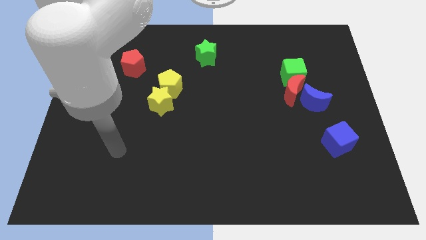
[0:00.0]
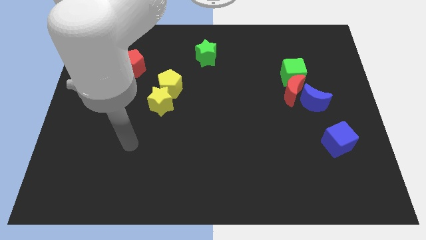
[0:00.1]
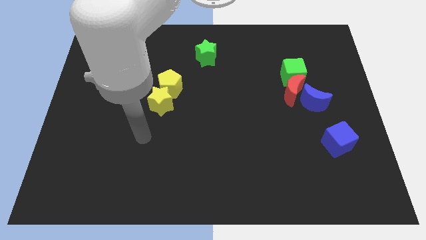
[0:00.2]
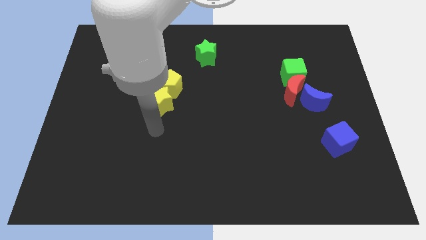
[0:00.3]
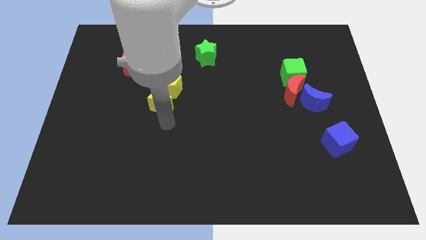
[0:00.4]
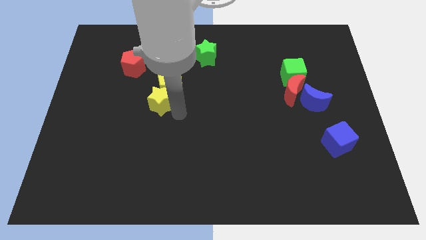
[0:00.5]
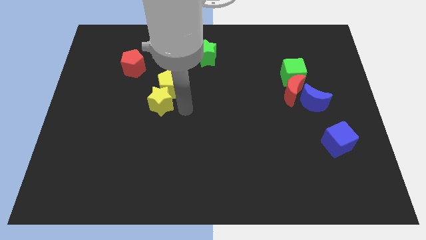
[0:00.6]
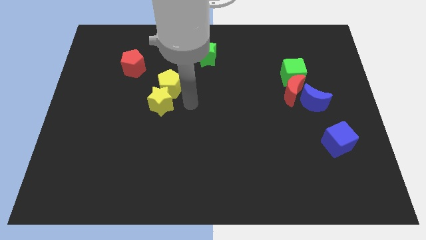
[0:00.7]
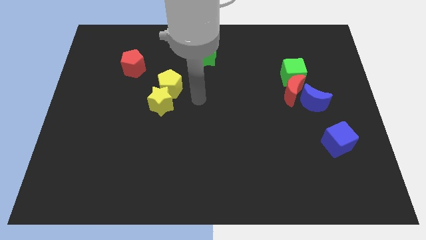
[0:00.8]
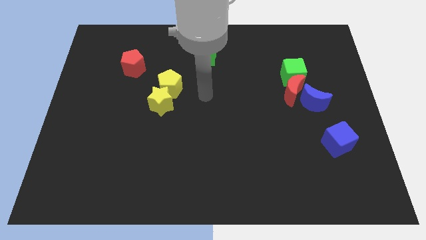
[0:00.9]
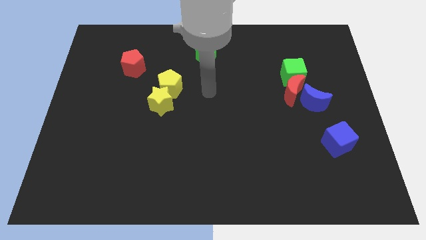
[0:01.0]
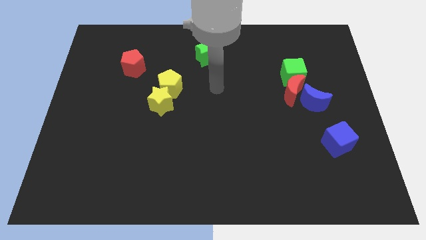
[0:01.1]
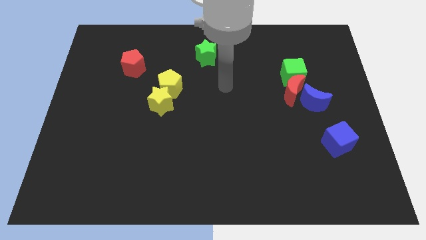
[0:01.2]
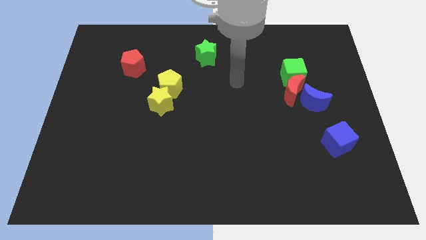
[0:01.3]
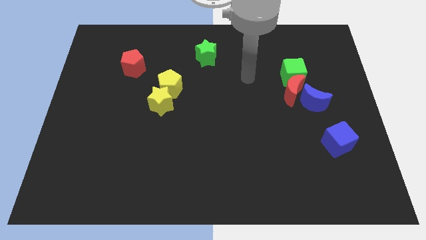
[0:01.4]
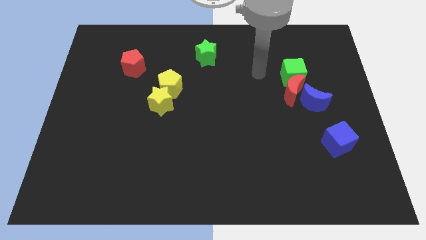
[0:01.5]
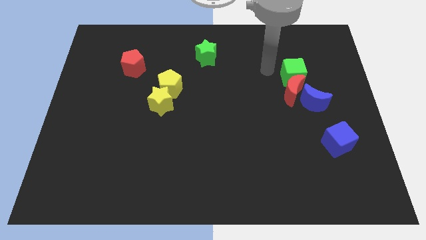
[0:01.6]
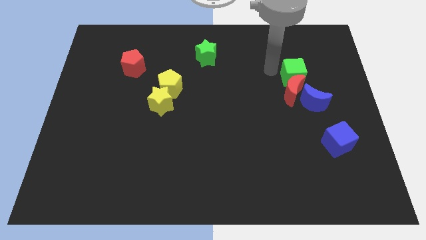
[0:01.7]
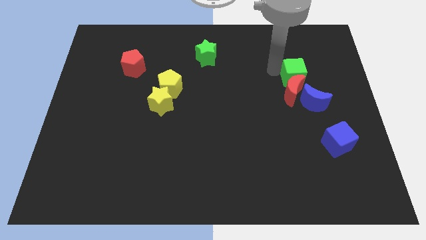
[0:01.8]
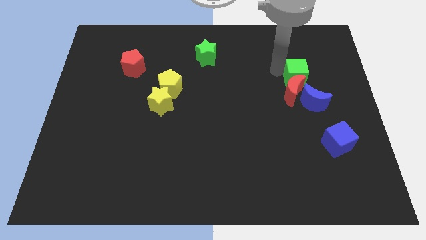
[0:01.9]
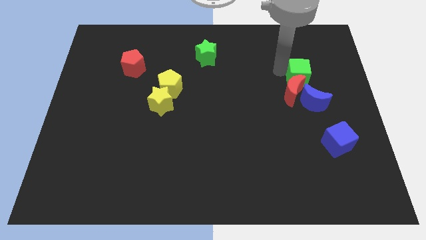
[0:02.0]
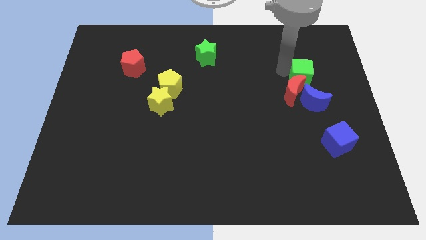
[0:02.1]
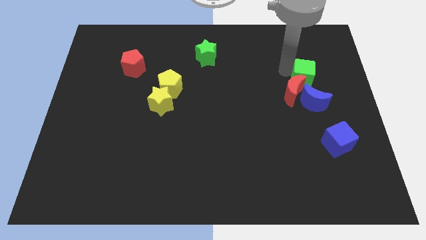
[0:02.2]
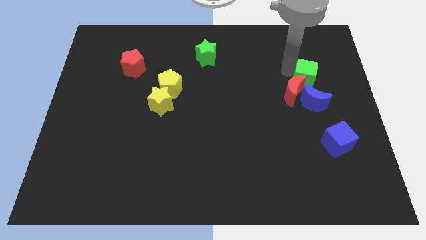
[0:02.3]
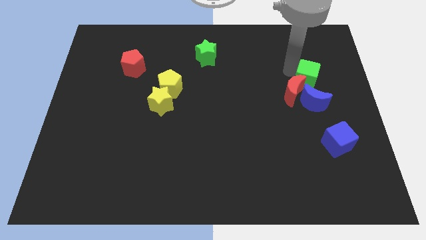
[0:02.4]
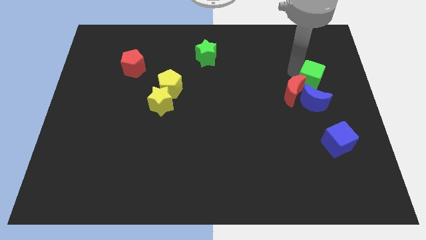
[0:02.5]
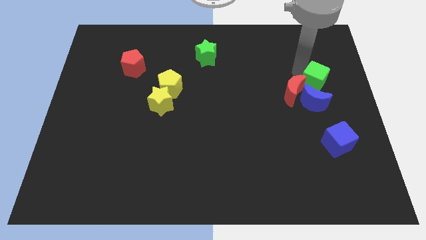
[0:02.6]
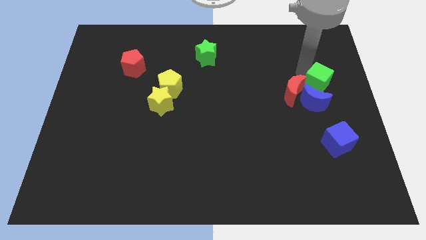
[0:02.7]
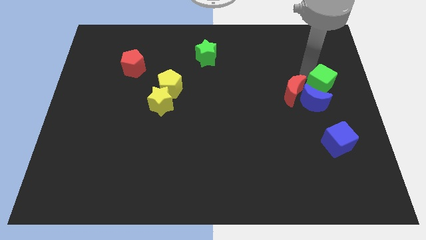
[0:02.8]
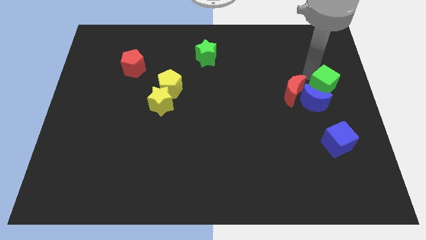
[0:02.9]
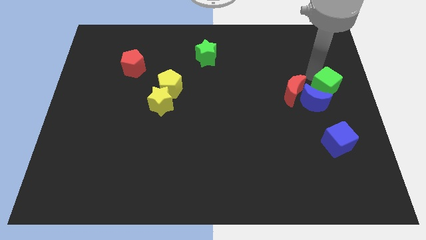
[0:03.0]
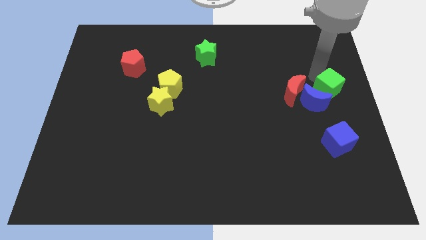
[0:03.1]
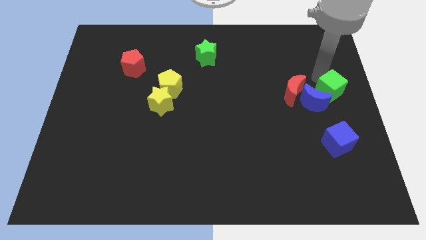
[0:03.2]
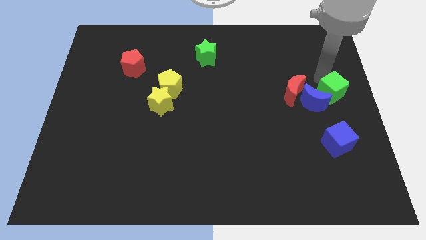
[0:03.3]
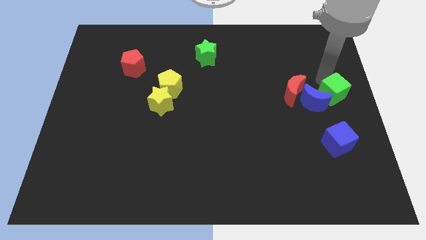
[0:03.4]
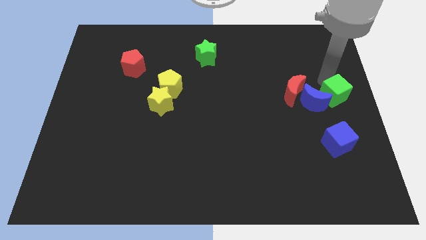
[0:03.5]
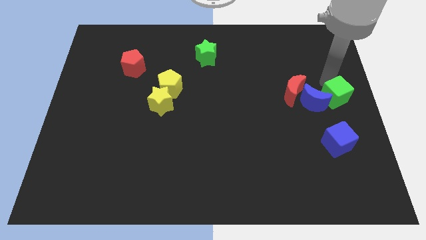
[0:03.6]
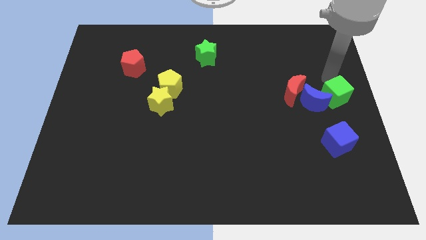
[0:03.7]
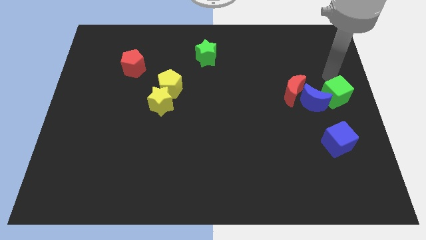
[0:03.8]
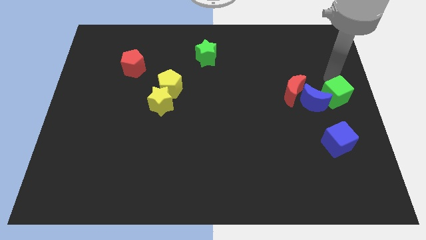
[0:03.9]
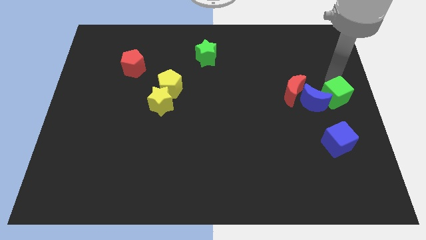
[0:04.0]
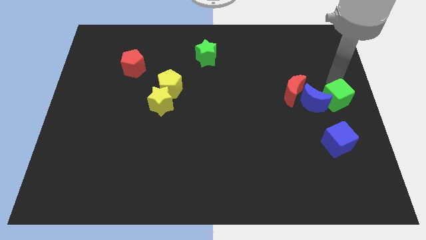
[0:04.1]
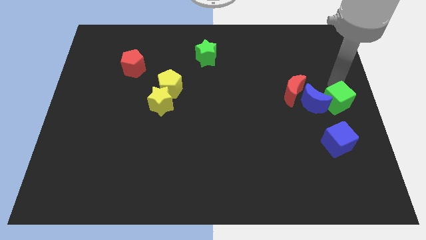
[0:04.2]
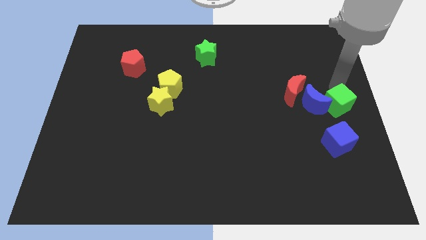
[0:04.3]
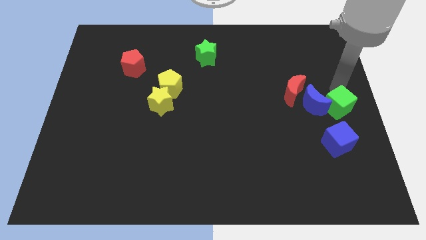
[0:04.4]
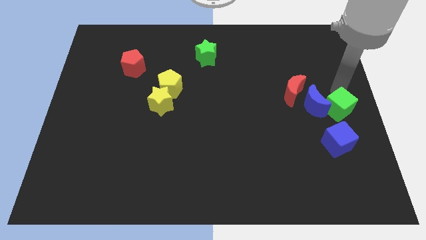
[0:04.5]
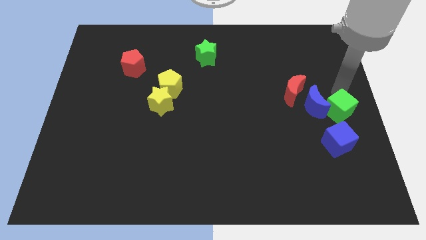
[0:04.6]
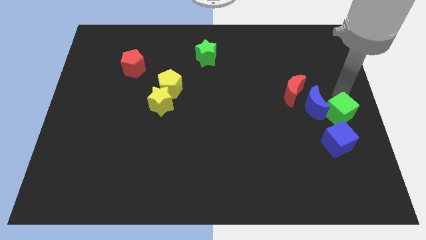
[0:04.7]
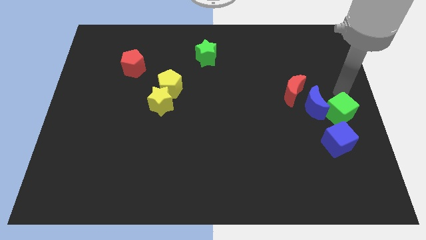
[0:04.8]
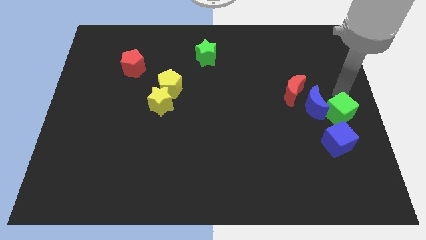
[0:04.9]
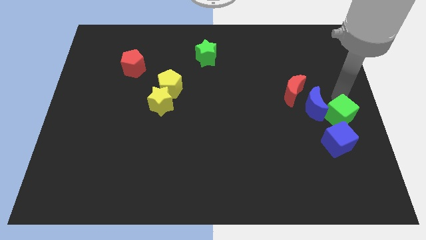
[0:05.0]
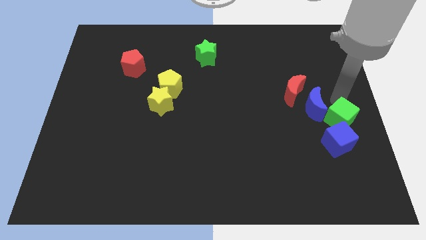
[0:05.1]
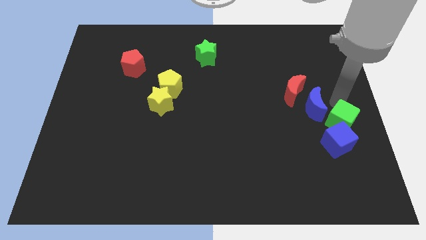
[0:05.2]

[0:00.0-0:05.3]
slide the green cube to the blue cube

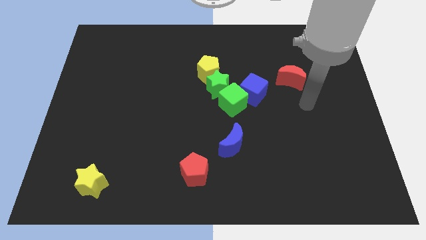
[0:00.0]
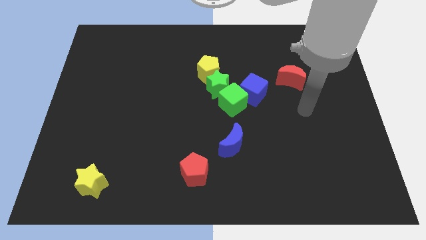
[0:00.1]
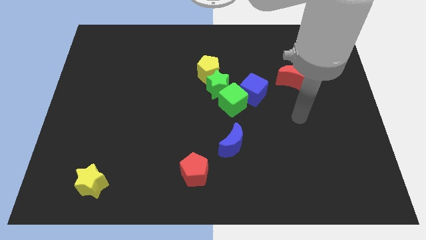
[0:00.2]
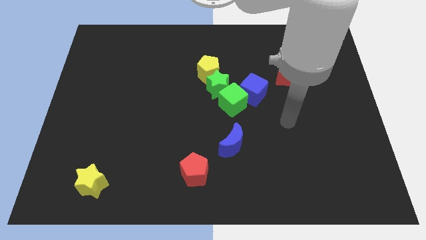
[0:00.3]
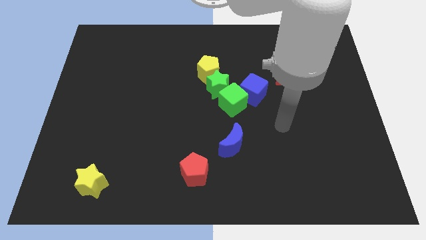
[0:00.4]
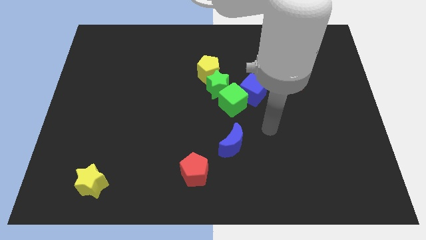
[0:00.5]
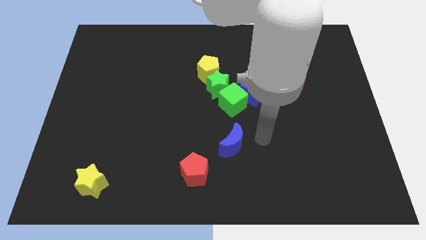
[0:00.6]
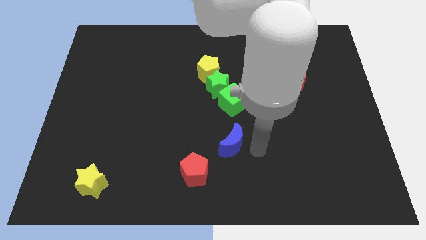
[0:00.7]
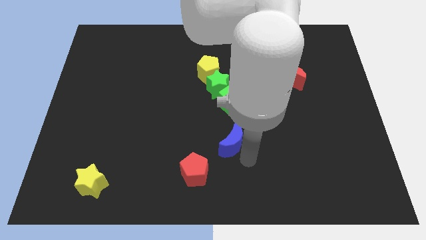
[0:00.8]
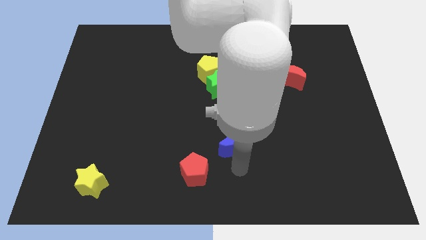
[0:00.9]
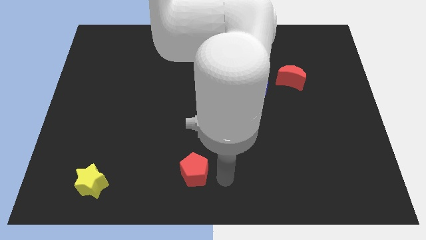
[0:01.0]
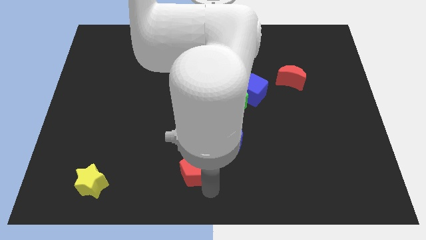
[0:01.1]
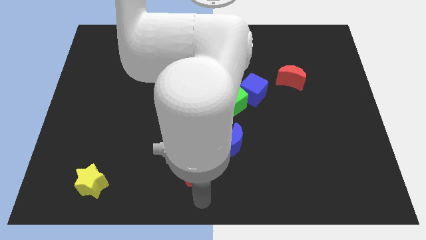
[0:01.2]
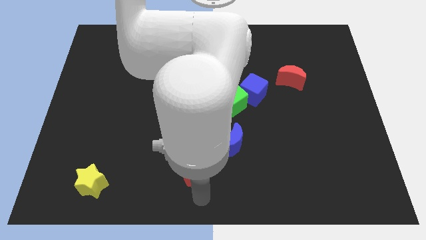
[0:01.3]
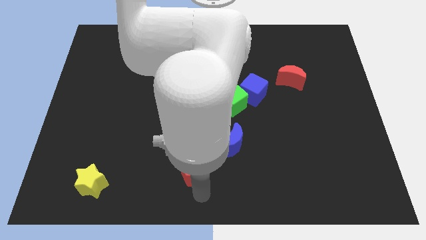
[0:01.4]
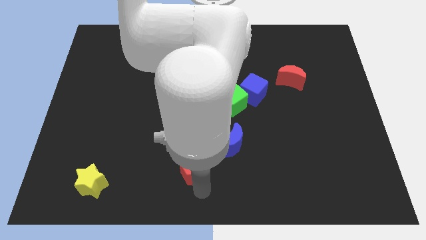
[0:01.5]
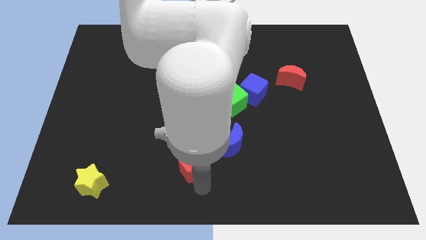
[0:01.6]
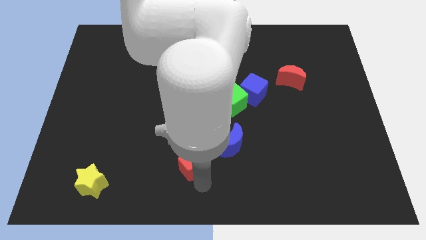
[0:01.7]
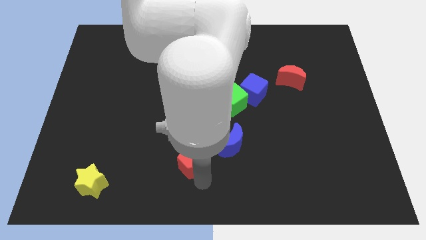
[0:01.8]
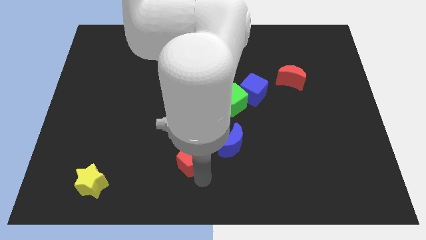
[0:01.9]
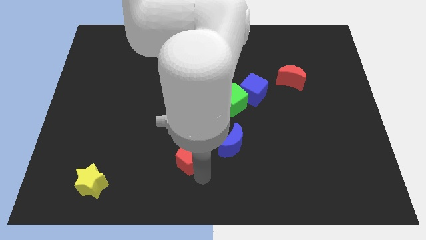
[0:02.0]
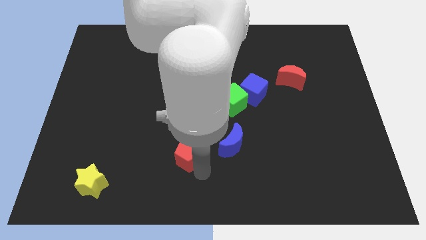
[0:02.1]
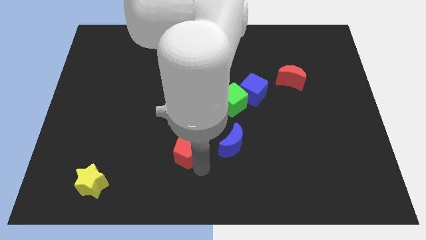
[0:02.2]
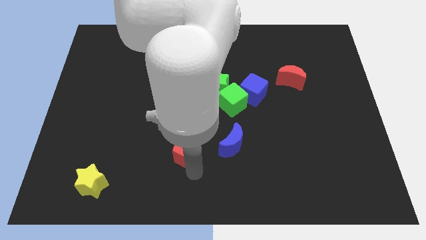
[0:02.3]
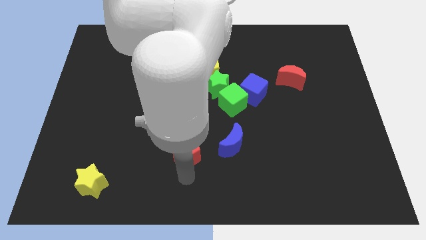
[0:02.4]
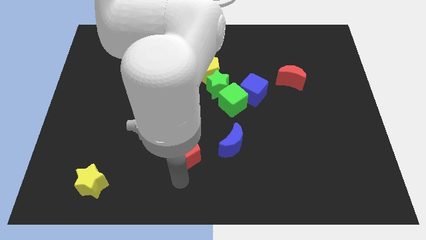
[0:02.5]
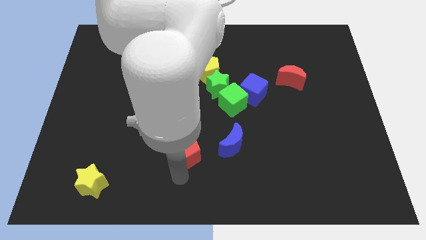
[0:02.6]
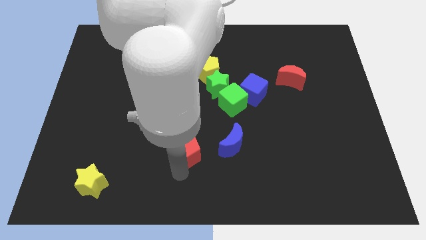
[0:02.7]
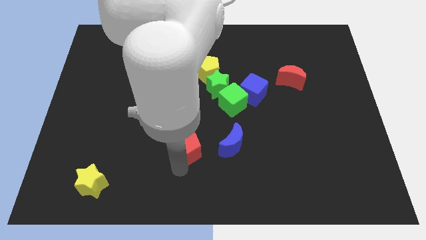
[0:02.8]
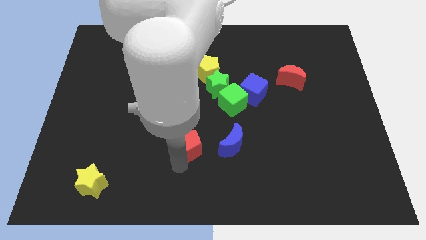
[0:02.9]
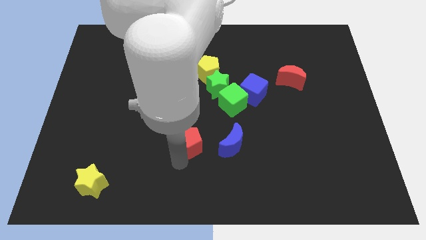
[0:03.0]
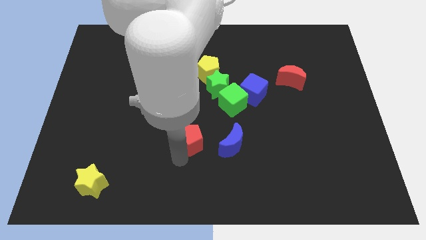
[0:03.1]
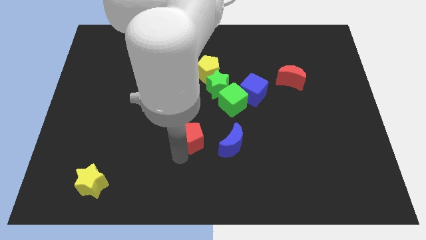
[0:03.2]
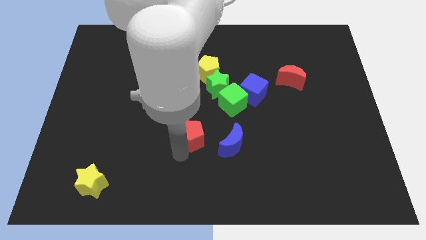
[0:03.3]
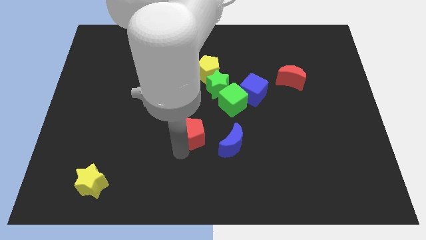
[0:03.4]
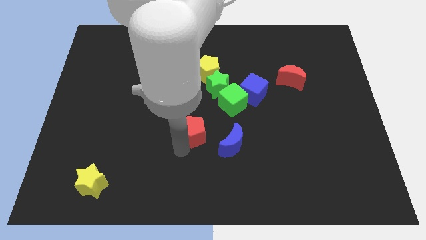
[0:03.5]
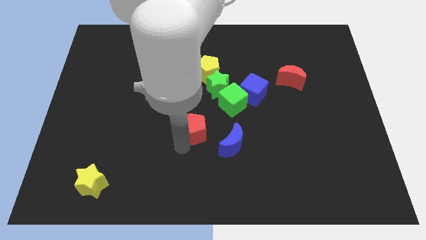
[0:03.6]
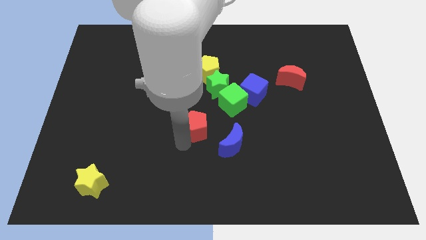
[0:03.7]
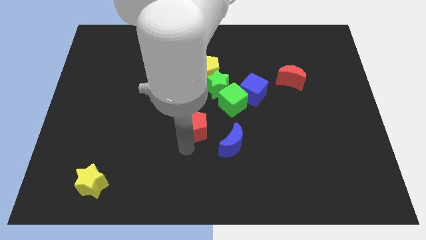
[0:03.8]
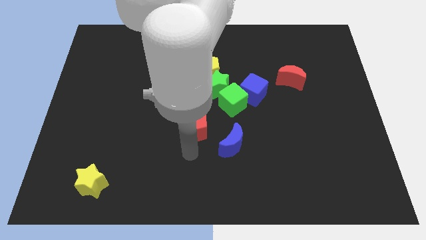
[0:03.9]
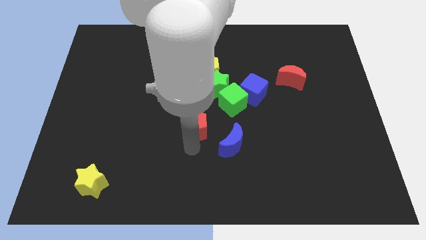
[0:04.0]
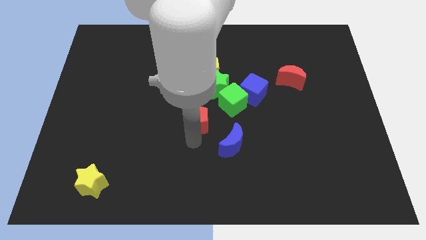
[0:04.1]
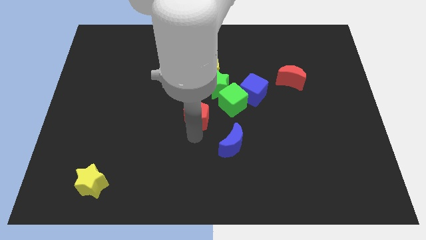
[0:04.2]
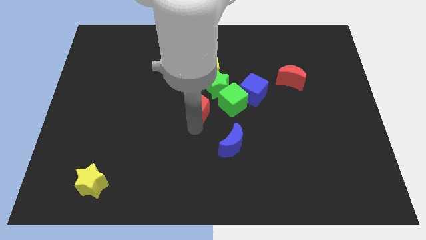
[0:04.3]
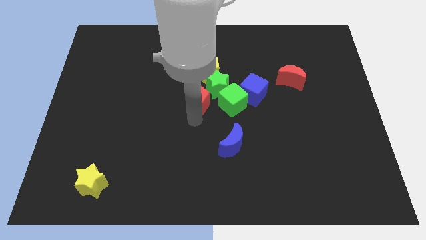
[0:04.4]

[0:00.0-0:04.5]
push the red pentagon close to the green star
